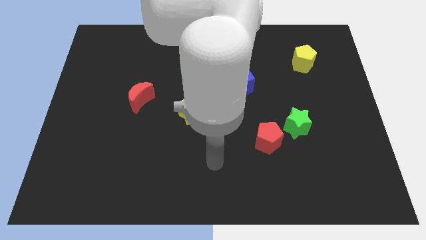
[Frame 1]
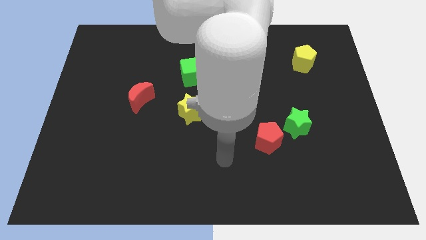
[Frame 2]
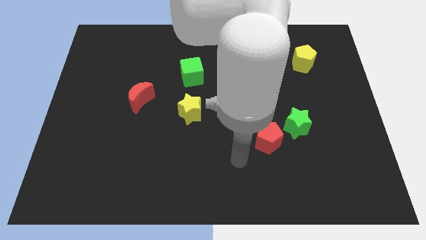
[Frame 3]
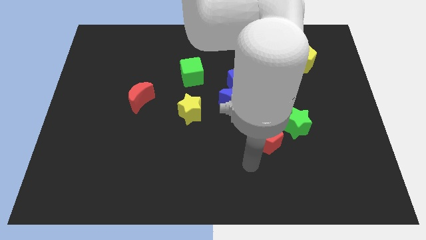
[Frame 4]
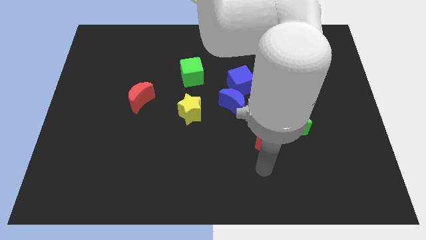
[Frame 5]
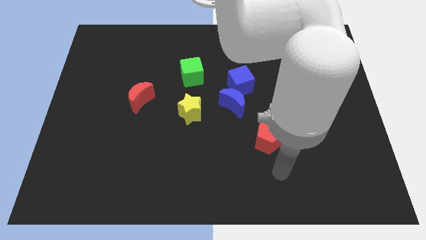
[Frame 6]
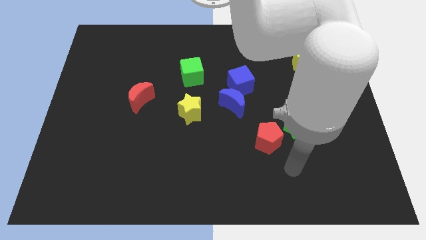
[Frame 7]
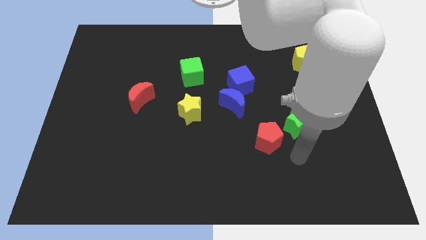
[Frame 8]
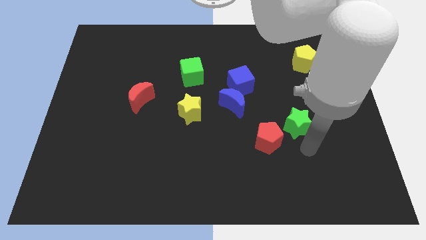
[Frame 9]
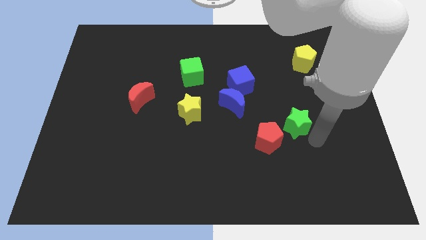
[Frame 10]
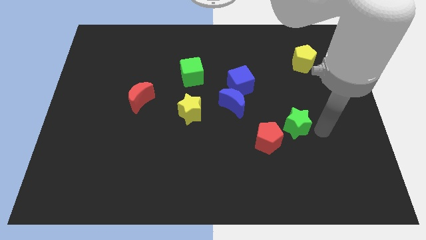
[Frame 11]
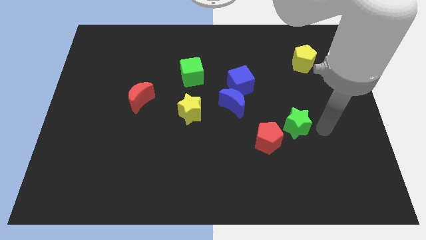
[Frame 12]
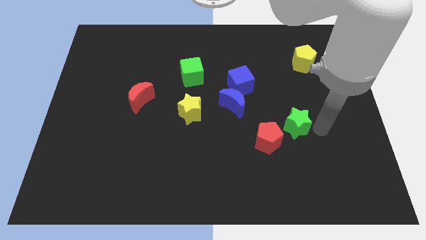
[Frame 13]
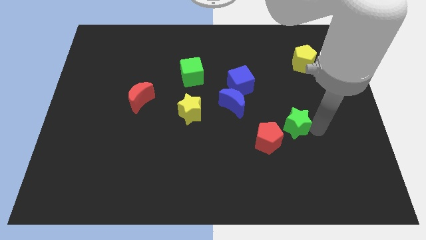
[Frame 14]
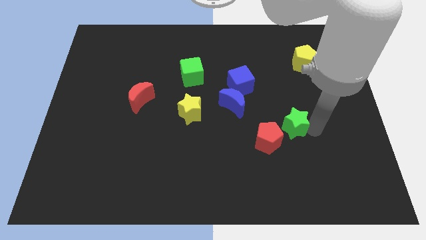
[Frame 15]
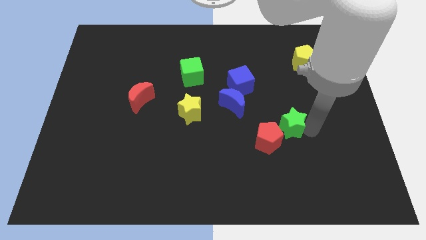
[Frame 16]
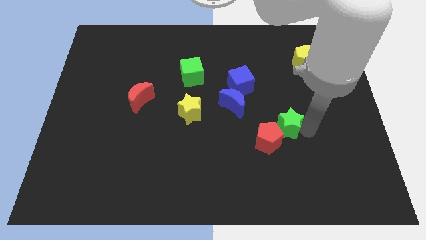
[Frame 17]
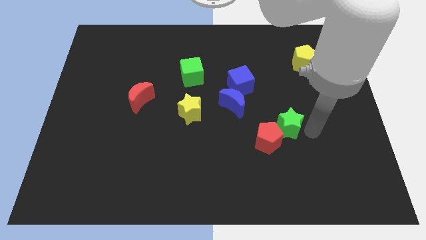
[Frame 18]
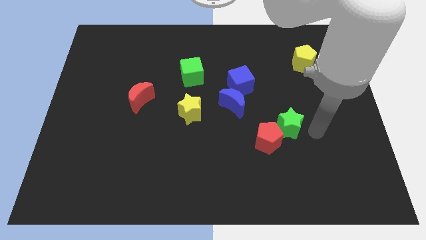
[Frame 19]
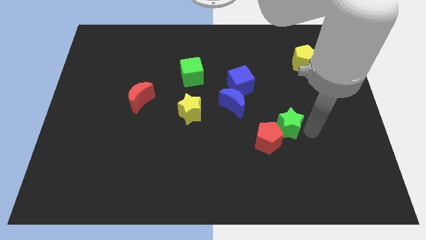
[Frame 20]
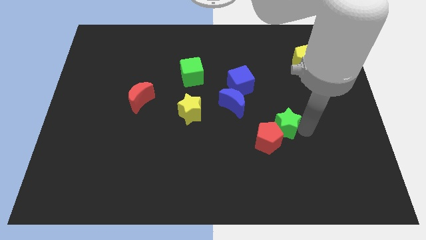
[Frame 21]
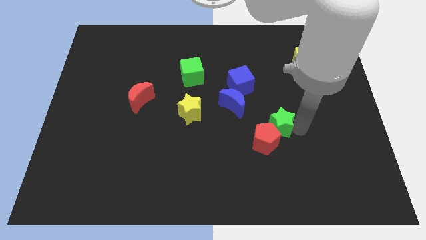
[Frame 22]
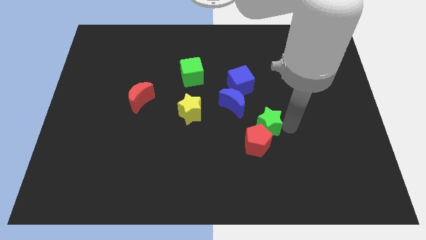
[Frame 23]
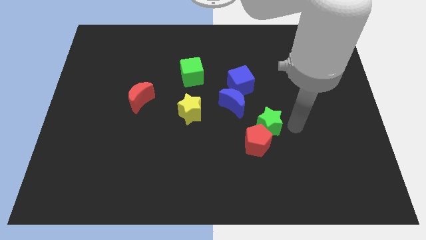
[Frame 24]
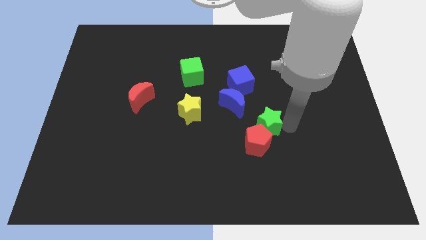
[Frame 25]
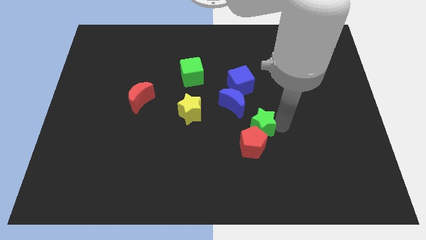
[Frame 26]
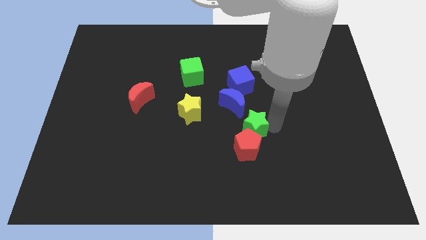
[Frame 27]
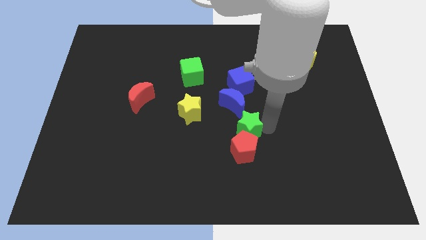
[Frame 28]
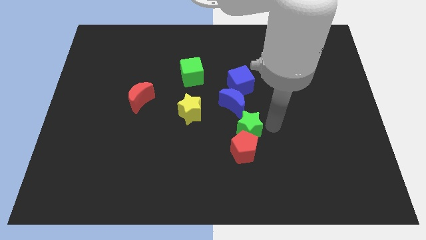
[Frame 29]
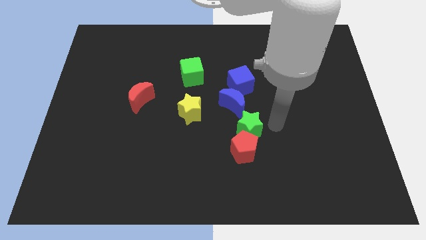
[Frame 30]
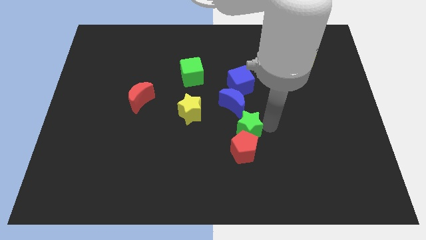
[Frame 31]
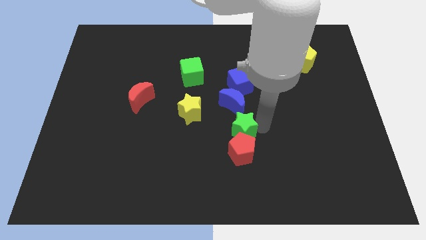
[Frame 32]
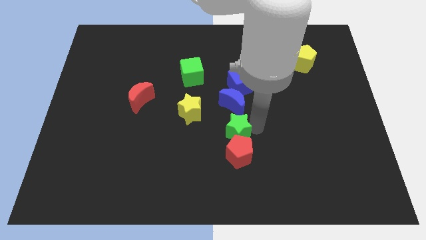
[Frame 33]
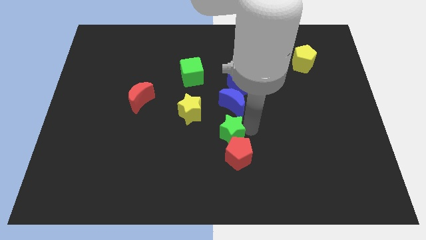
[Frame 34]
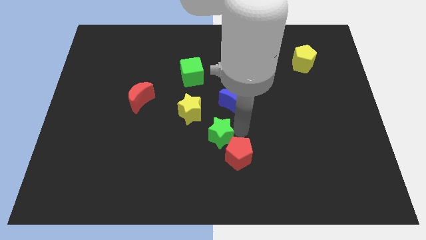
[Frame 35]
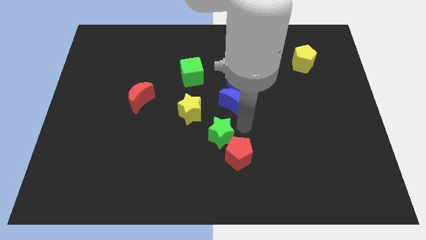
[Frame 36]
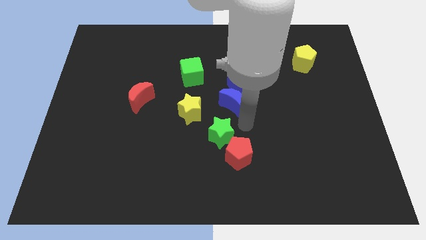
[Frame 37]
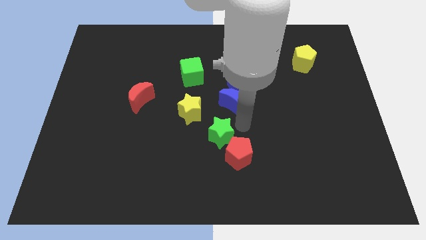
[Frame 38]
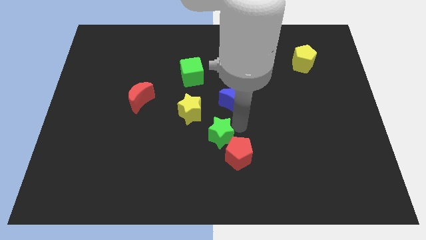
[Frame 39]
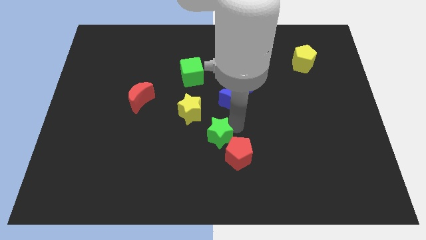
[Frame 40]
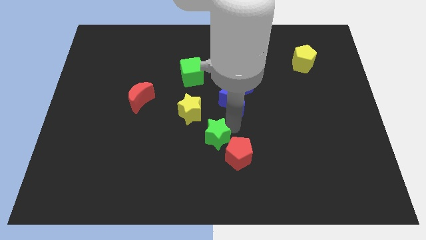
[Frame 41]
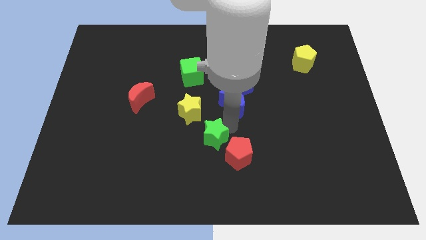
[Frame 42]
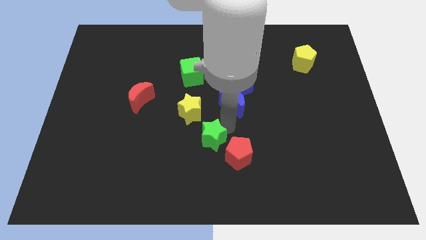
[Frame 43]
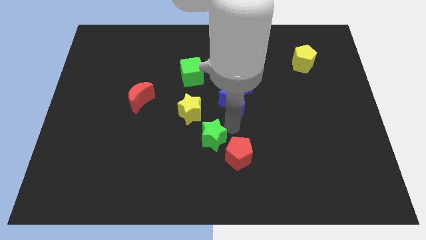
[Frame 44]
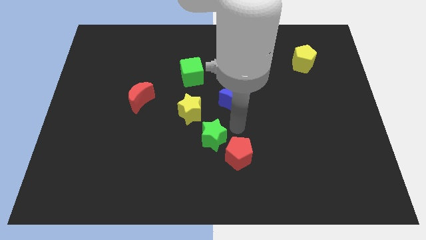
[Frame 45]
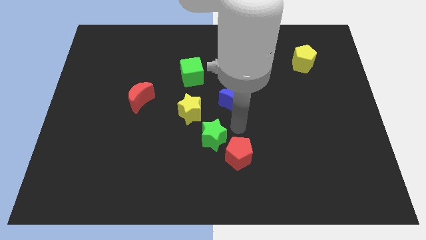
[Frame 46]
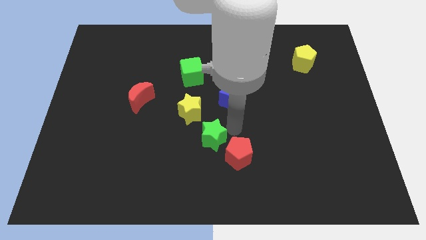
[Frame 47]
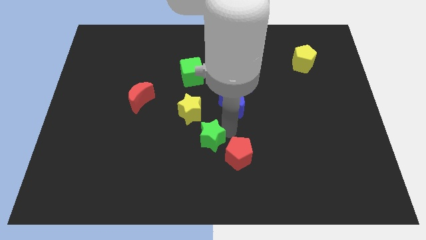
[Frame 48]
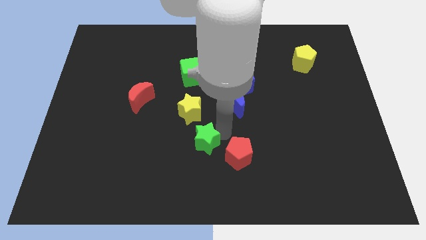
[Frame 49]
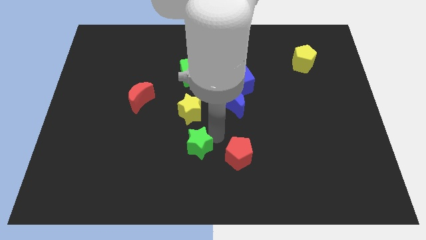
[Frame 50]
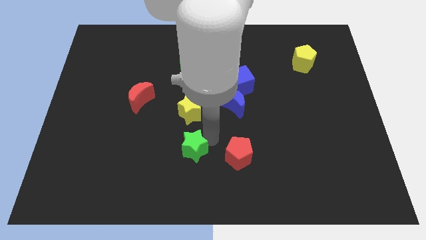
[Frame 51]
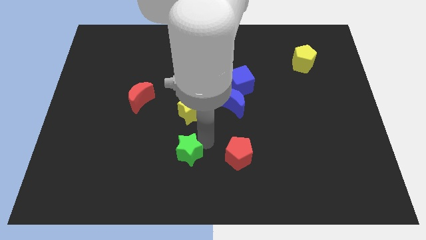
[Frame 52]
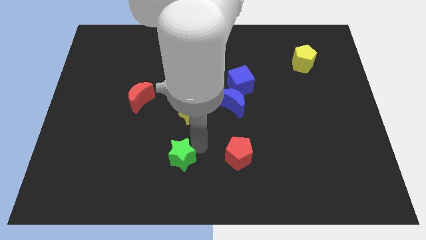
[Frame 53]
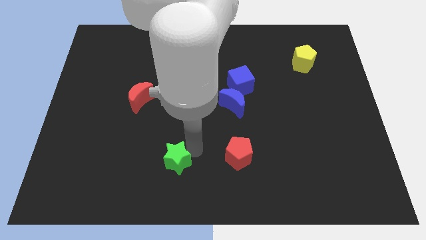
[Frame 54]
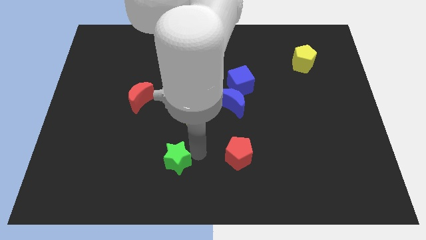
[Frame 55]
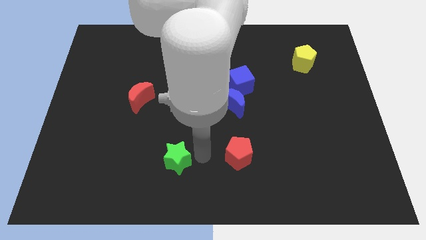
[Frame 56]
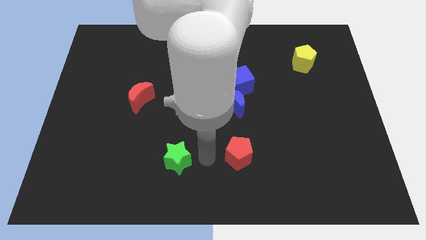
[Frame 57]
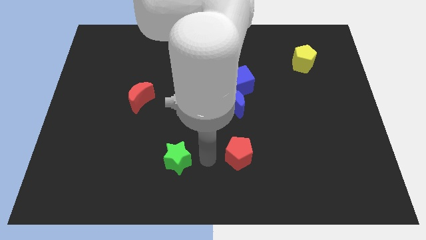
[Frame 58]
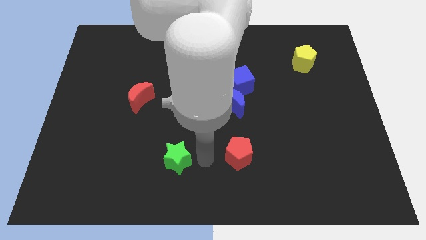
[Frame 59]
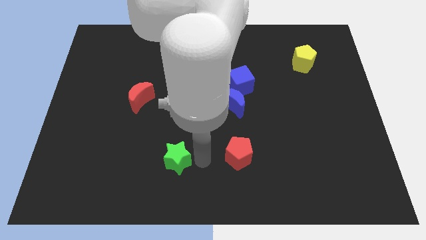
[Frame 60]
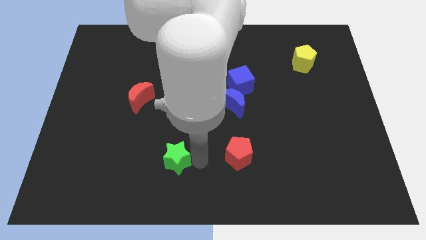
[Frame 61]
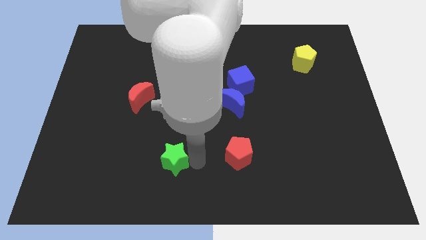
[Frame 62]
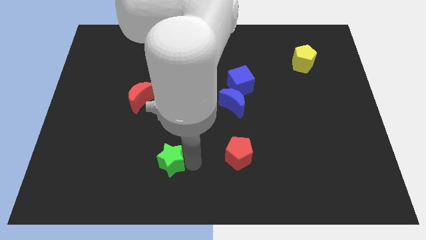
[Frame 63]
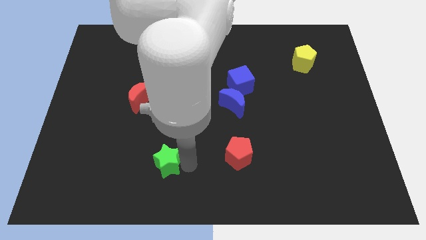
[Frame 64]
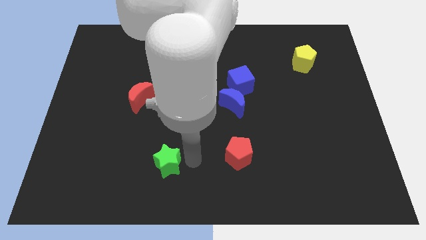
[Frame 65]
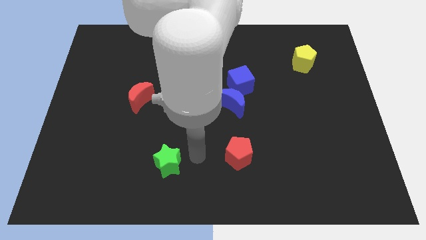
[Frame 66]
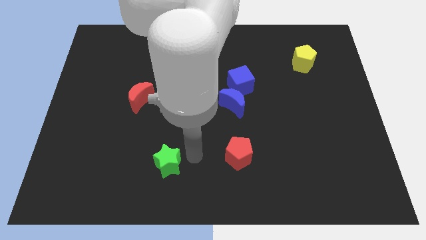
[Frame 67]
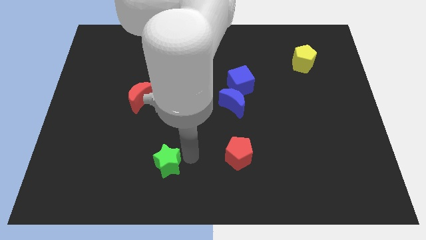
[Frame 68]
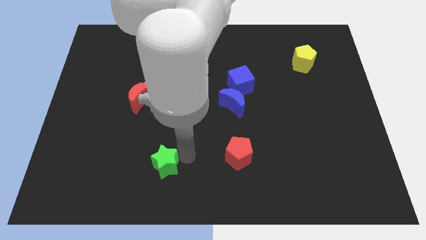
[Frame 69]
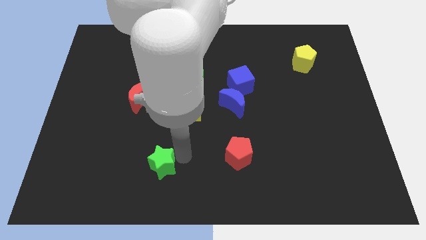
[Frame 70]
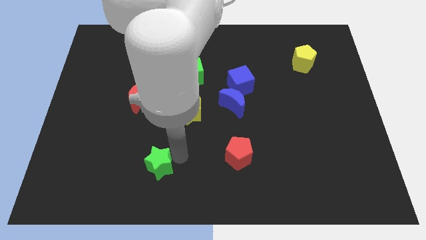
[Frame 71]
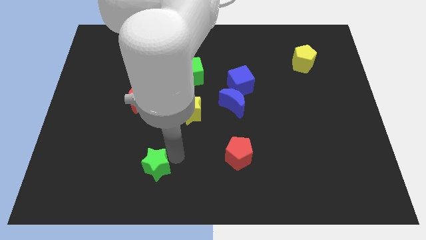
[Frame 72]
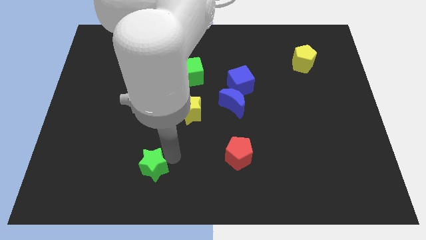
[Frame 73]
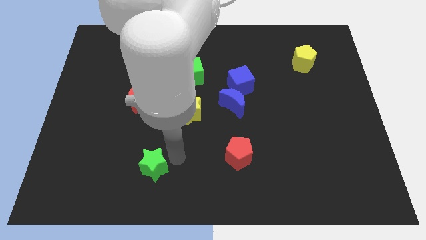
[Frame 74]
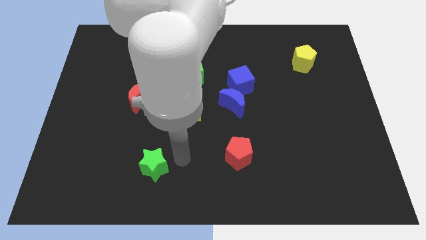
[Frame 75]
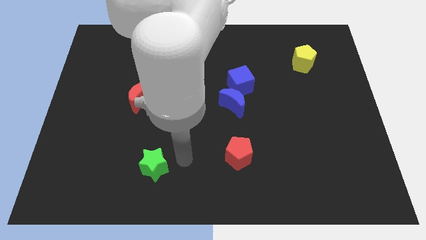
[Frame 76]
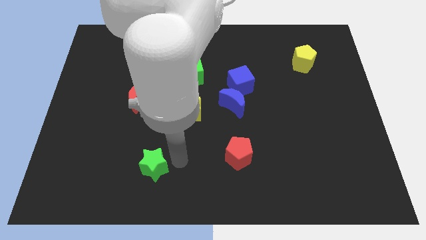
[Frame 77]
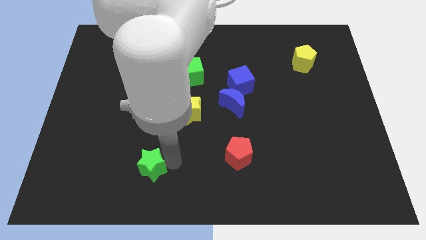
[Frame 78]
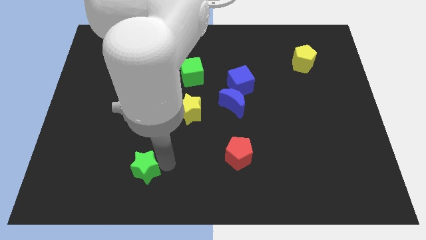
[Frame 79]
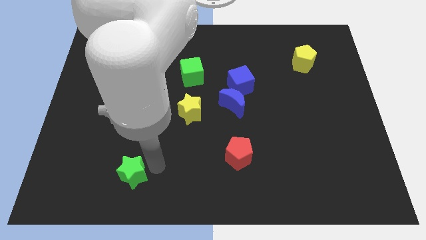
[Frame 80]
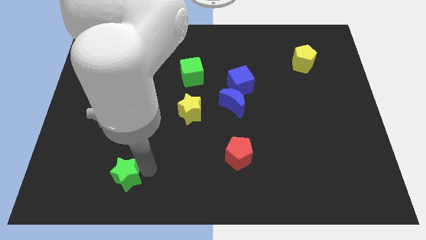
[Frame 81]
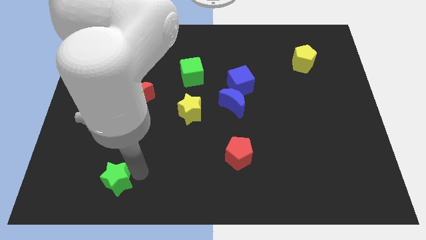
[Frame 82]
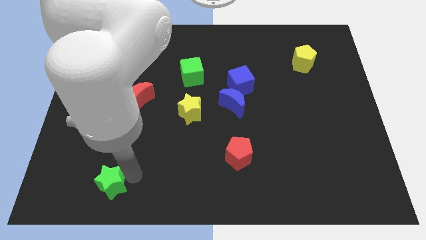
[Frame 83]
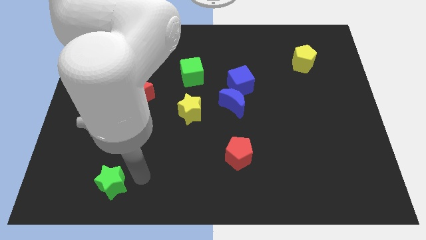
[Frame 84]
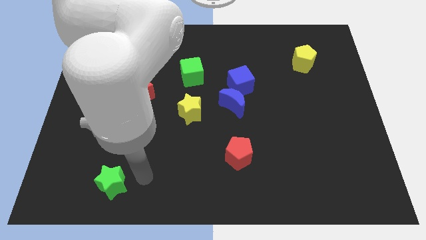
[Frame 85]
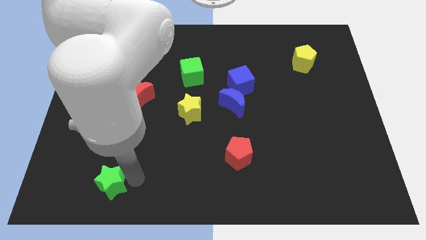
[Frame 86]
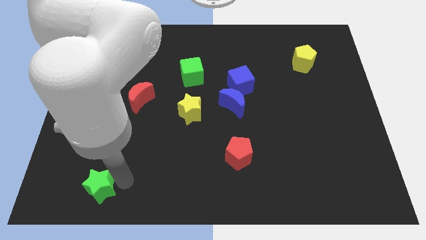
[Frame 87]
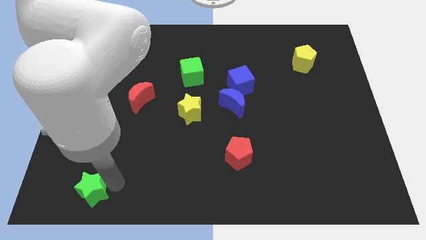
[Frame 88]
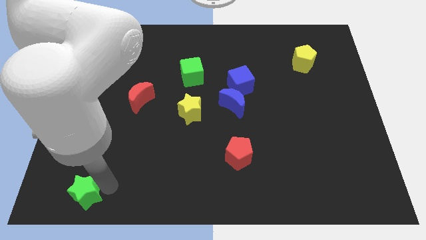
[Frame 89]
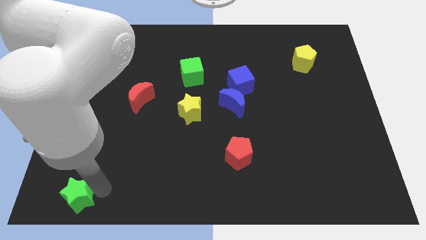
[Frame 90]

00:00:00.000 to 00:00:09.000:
put the green star to the bottom left of the board
